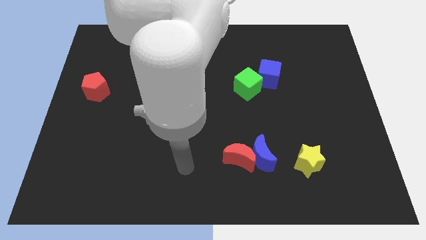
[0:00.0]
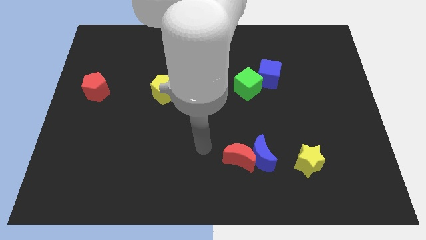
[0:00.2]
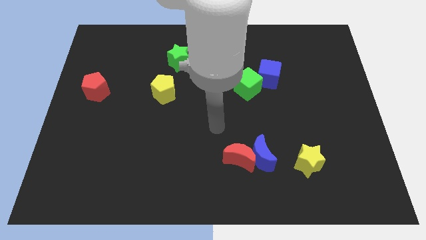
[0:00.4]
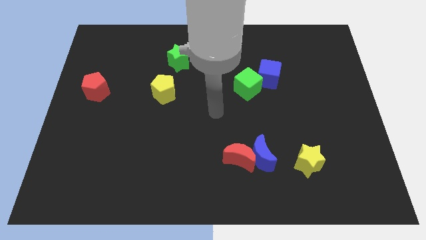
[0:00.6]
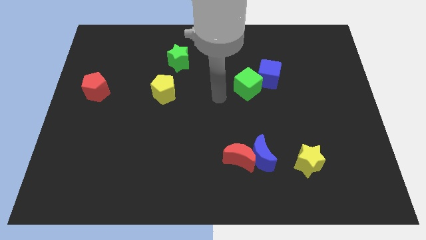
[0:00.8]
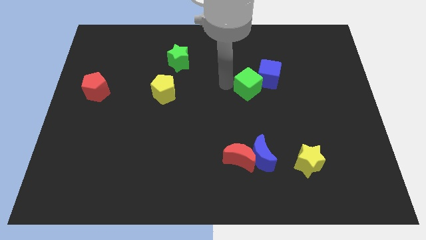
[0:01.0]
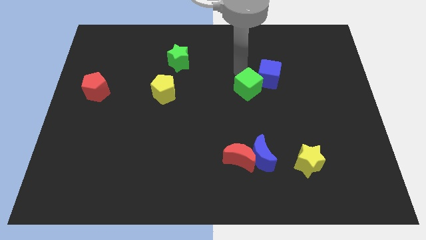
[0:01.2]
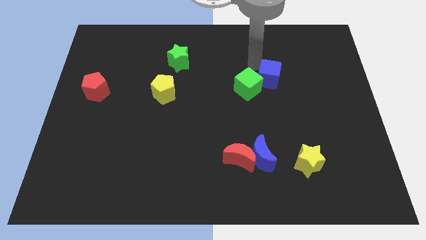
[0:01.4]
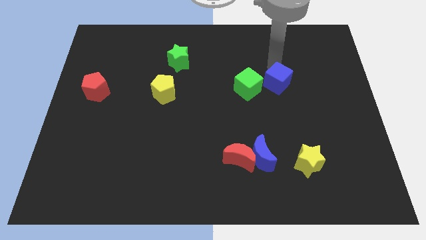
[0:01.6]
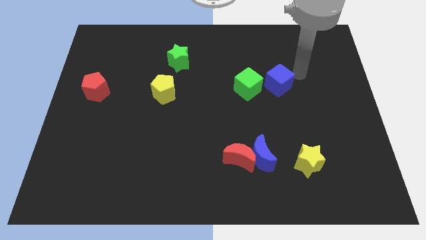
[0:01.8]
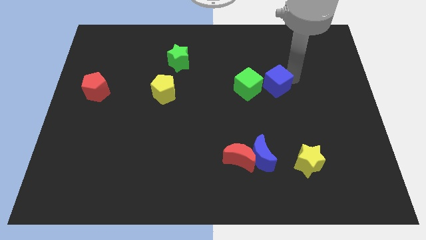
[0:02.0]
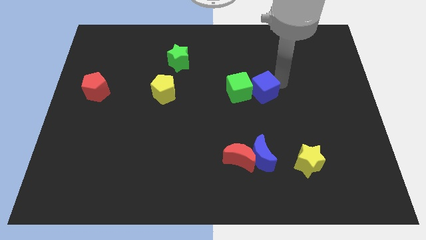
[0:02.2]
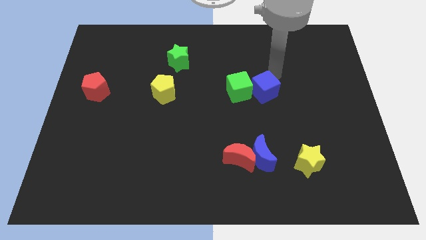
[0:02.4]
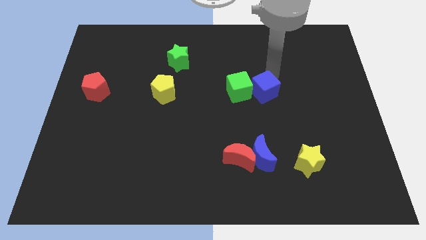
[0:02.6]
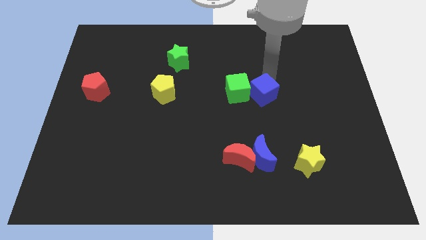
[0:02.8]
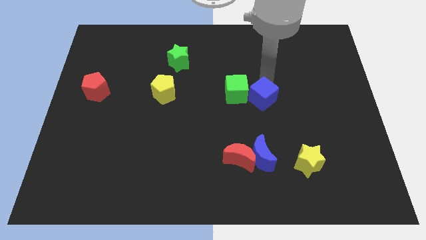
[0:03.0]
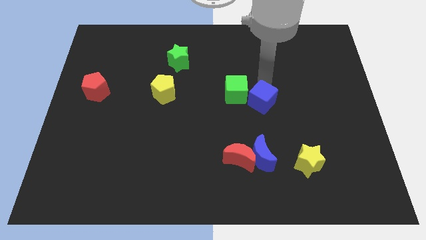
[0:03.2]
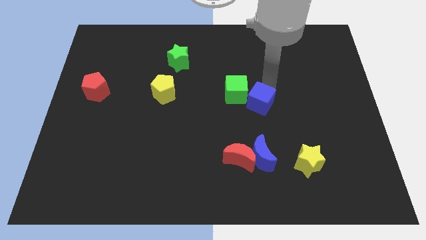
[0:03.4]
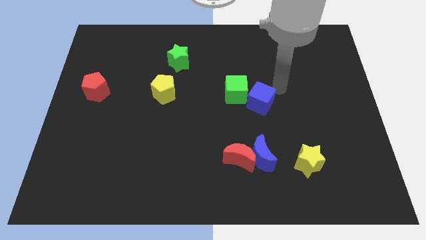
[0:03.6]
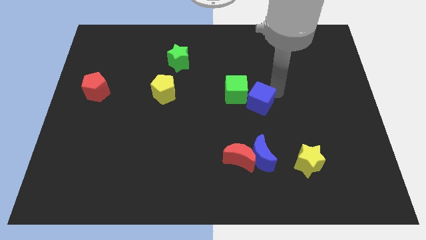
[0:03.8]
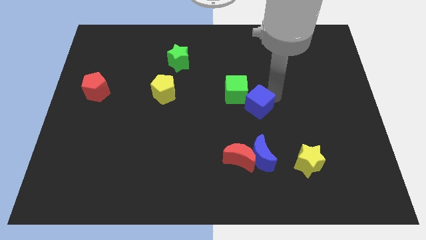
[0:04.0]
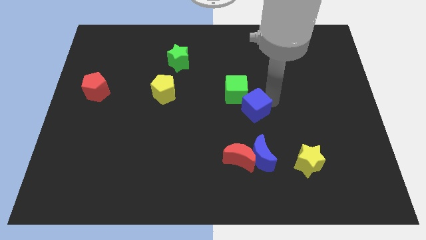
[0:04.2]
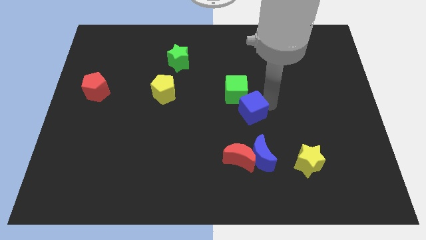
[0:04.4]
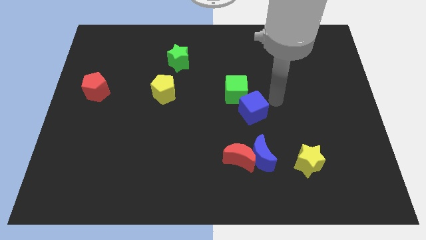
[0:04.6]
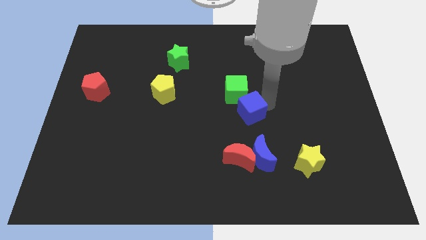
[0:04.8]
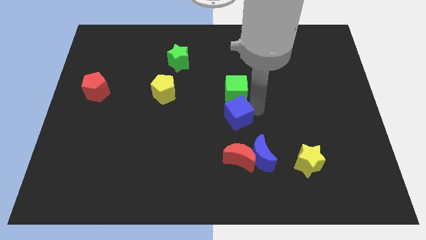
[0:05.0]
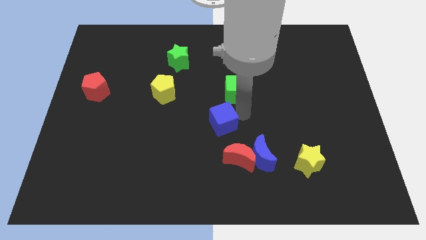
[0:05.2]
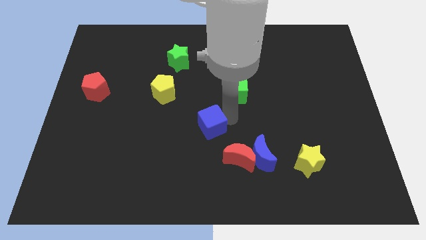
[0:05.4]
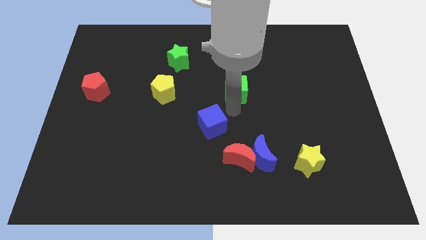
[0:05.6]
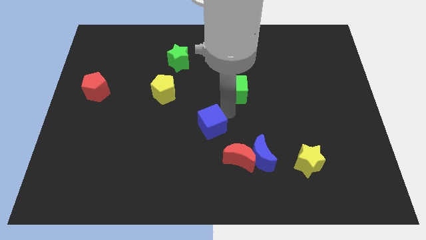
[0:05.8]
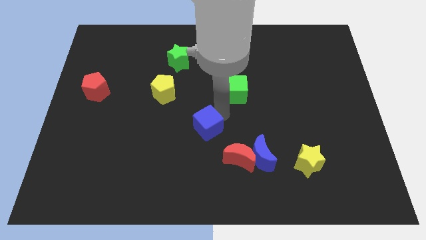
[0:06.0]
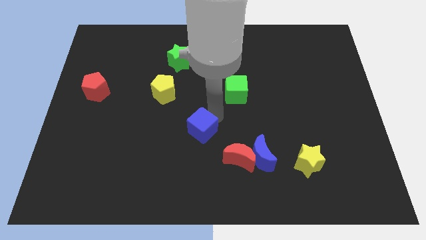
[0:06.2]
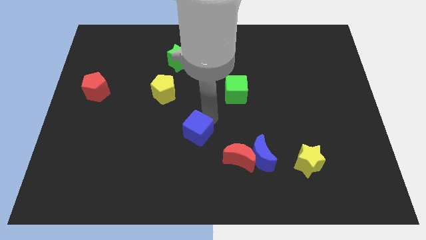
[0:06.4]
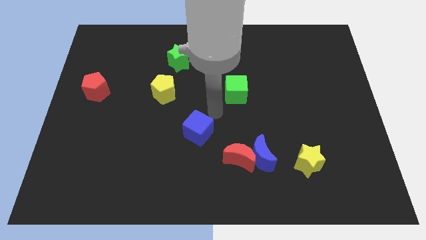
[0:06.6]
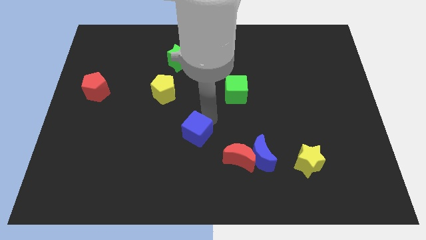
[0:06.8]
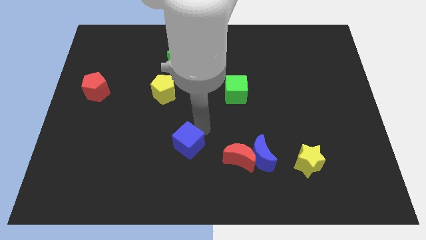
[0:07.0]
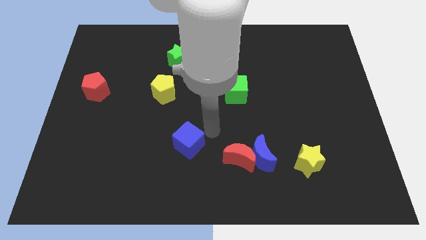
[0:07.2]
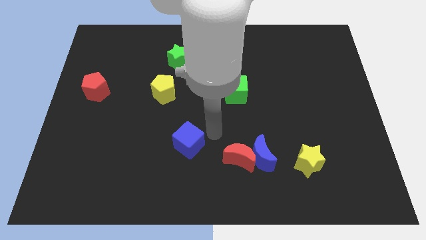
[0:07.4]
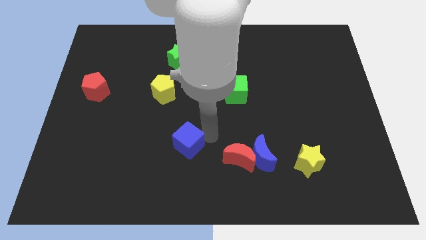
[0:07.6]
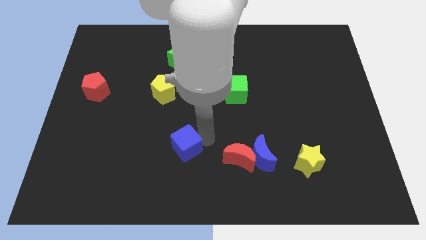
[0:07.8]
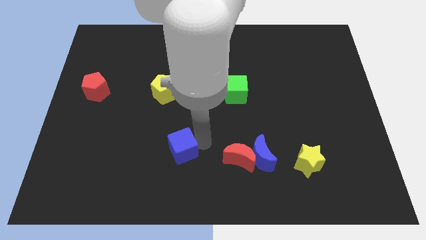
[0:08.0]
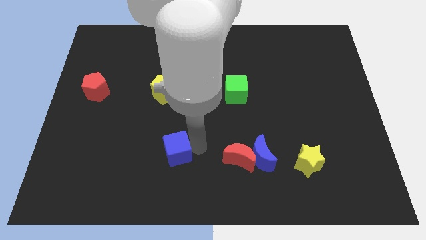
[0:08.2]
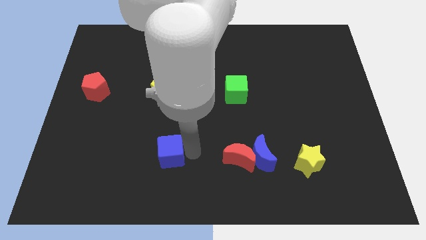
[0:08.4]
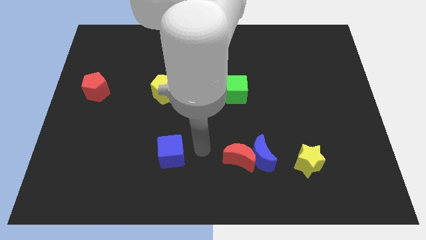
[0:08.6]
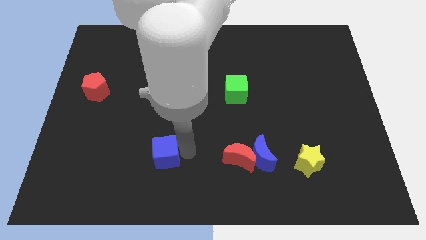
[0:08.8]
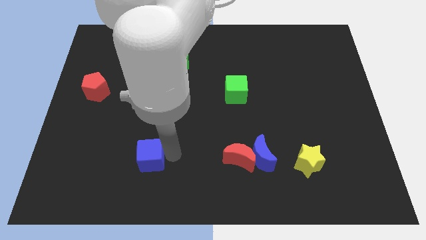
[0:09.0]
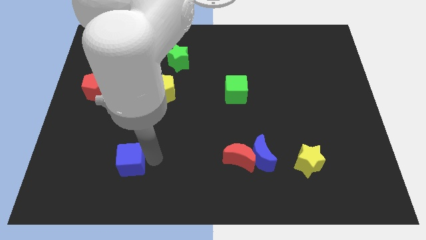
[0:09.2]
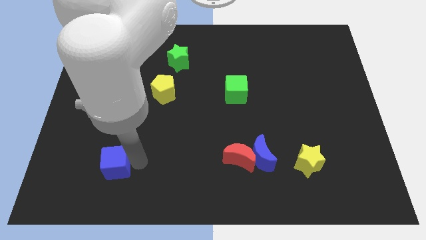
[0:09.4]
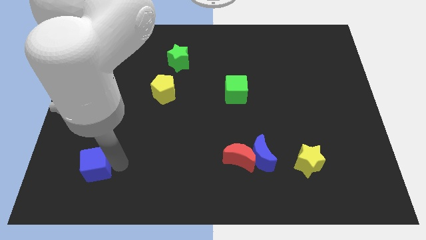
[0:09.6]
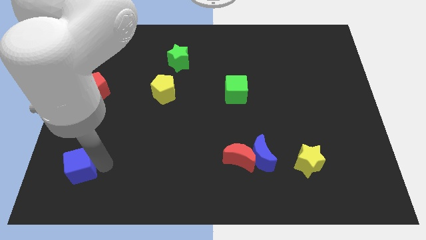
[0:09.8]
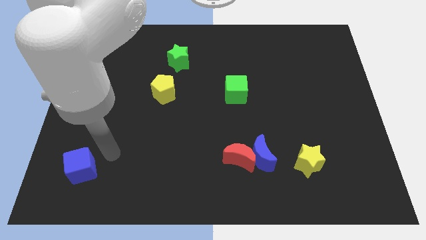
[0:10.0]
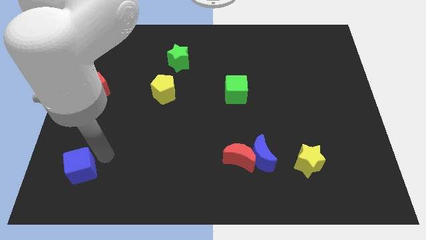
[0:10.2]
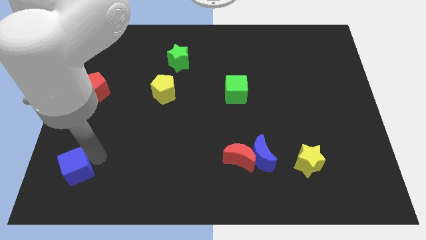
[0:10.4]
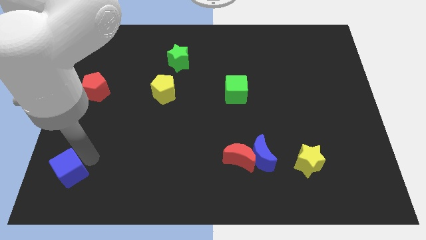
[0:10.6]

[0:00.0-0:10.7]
put the blue cube to the bottom left corner

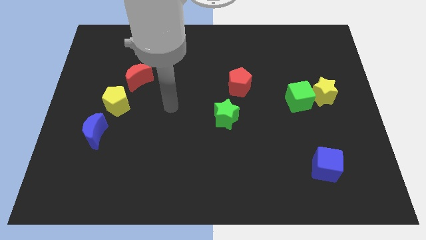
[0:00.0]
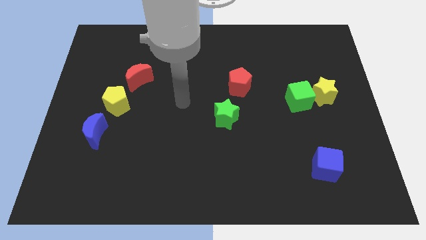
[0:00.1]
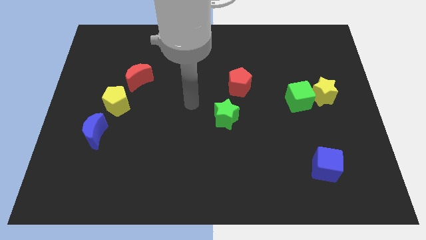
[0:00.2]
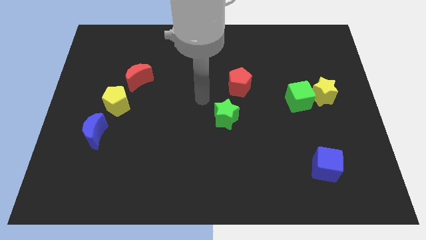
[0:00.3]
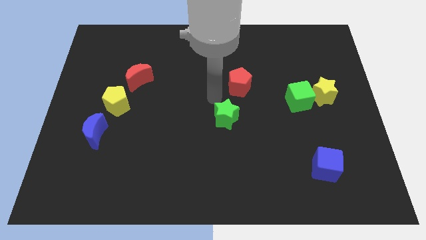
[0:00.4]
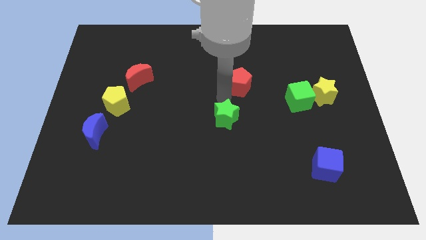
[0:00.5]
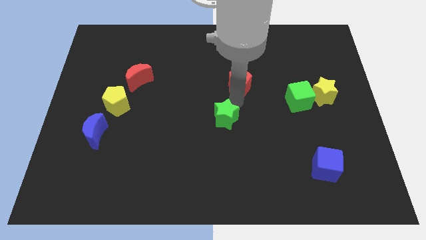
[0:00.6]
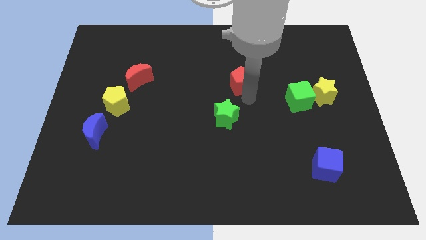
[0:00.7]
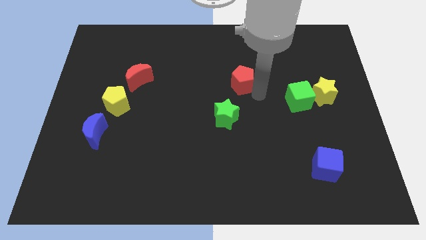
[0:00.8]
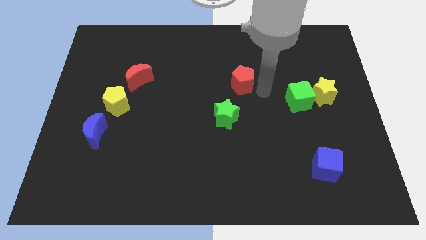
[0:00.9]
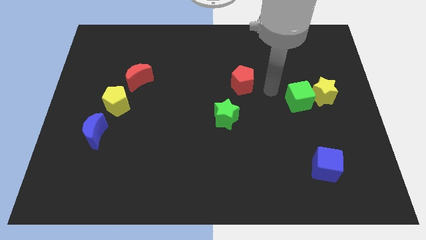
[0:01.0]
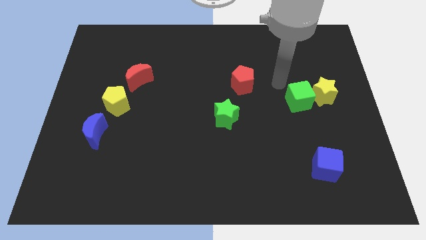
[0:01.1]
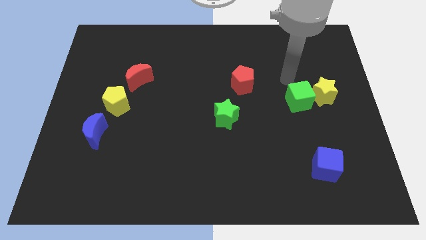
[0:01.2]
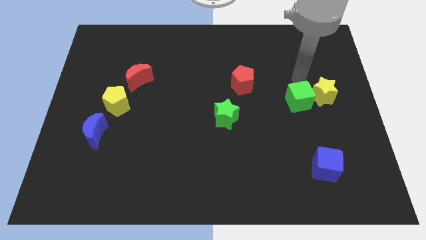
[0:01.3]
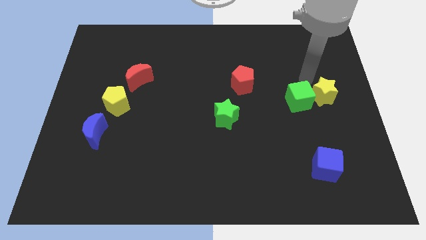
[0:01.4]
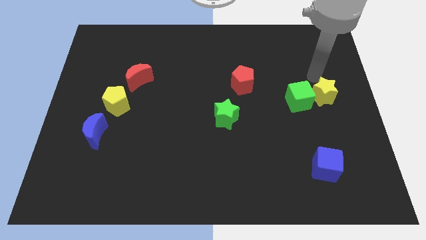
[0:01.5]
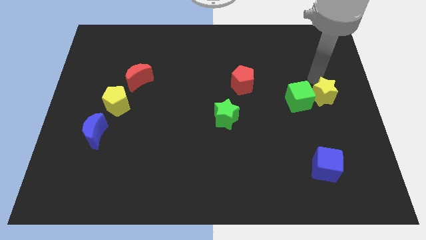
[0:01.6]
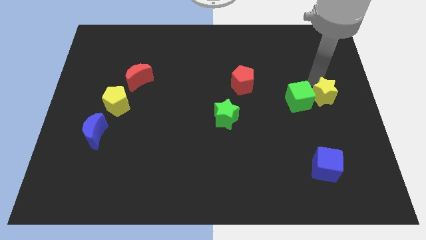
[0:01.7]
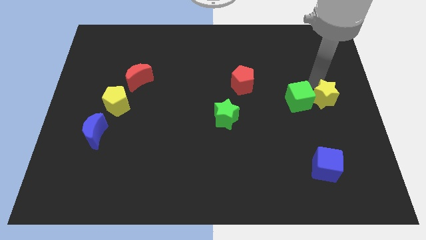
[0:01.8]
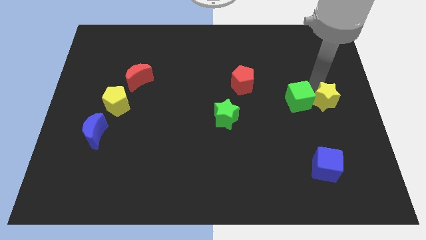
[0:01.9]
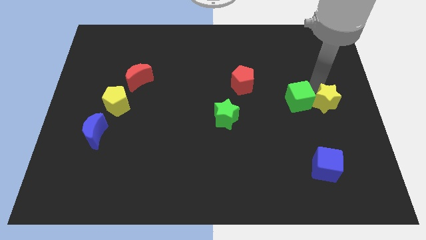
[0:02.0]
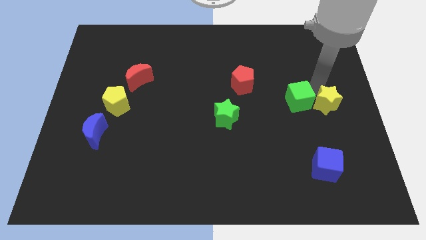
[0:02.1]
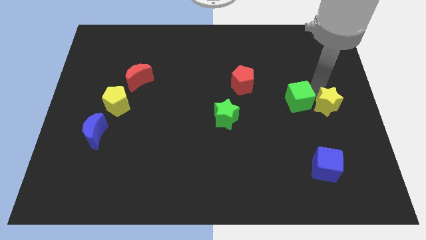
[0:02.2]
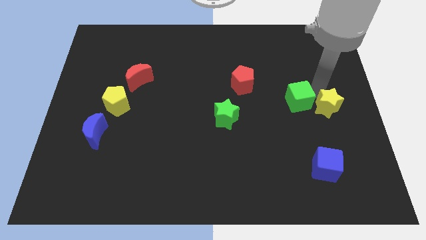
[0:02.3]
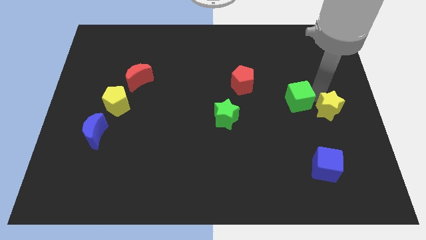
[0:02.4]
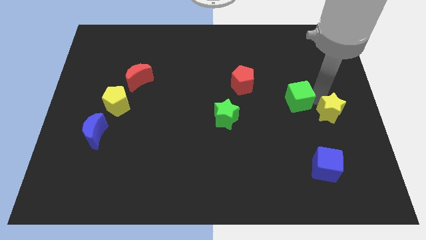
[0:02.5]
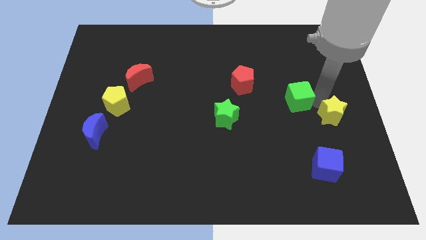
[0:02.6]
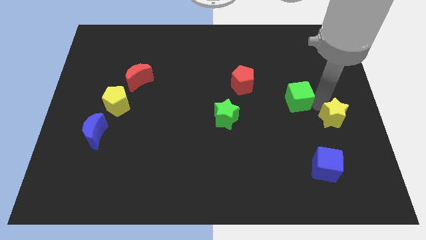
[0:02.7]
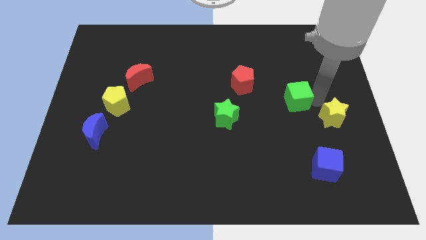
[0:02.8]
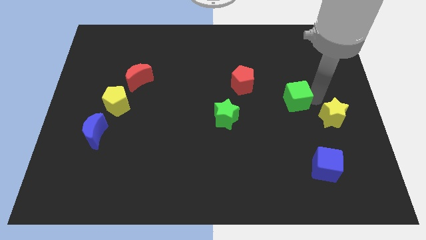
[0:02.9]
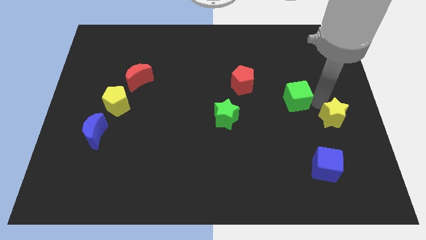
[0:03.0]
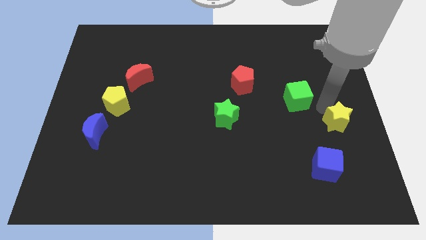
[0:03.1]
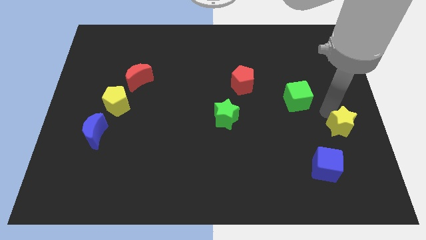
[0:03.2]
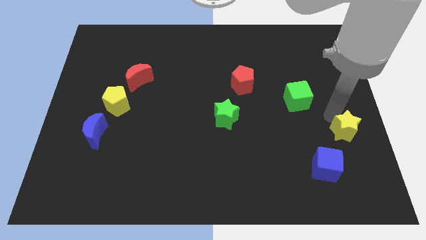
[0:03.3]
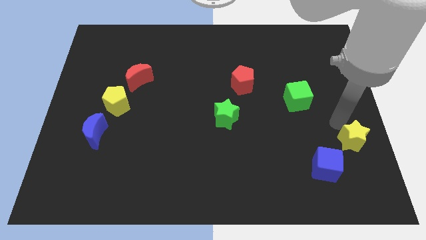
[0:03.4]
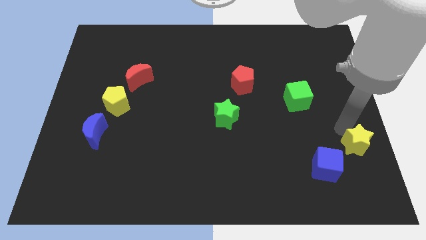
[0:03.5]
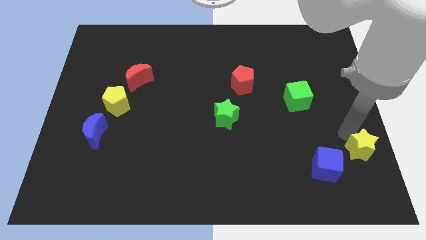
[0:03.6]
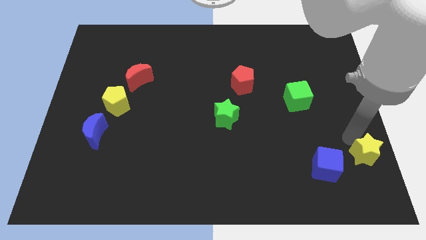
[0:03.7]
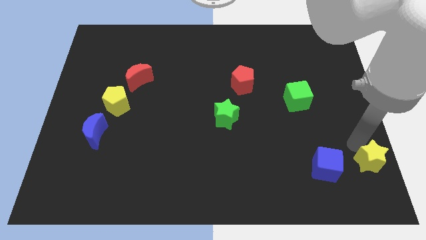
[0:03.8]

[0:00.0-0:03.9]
put the yellow star to the bottom right of the board
